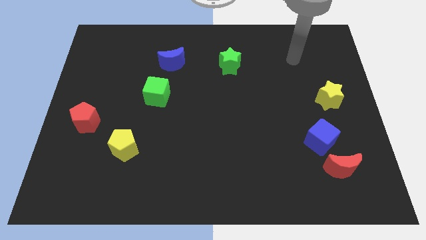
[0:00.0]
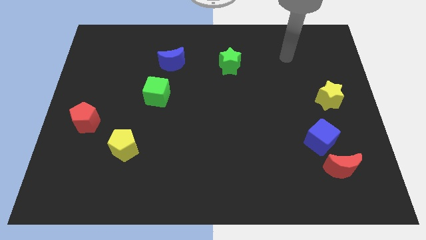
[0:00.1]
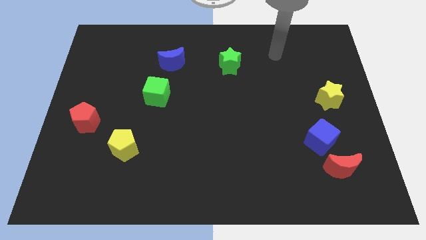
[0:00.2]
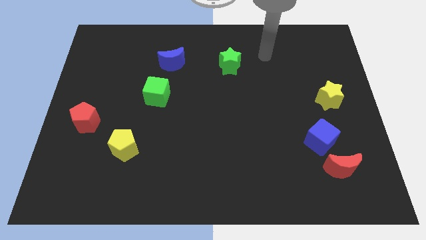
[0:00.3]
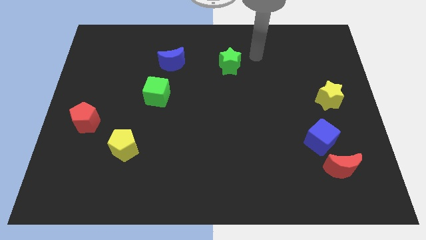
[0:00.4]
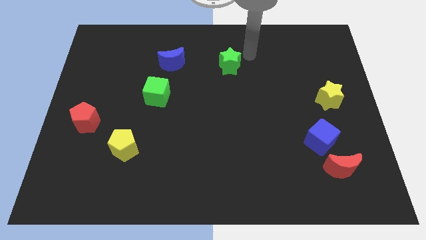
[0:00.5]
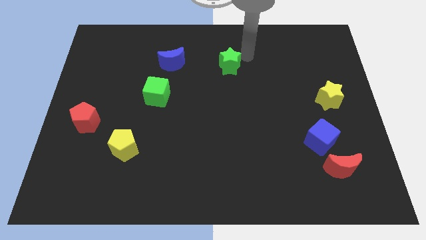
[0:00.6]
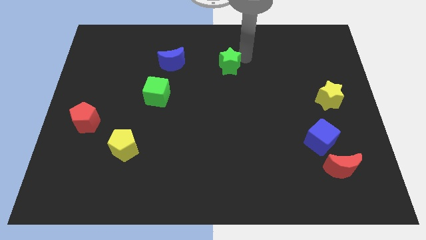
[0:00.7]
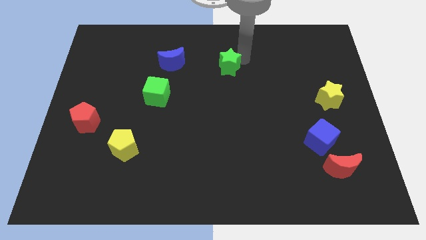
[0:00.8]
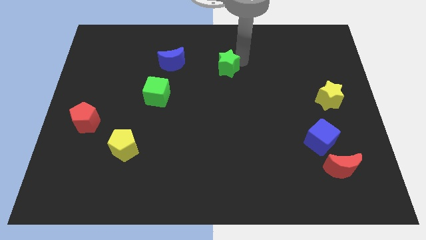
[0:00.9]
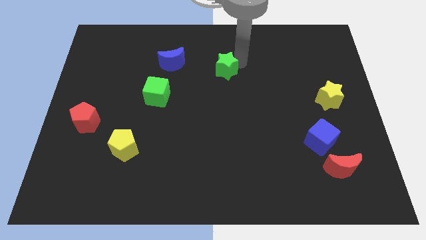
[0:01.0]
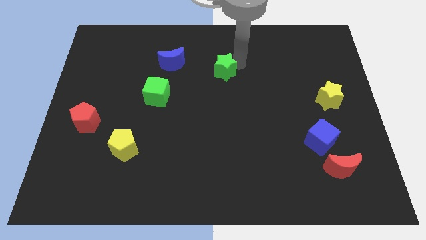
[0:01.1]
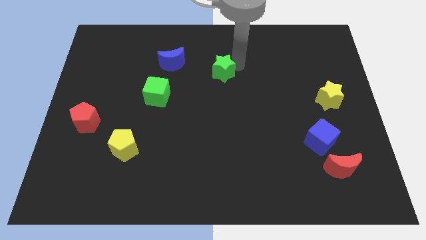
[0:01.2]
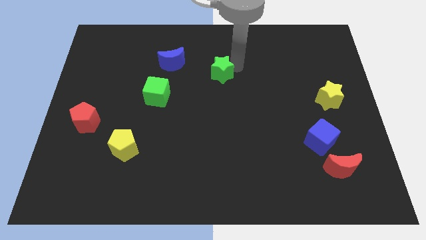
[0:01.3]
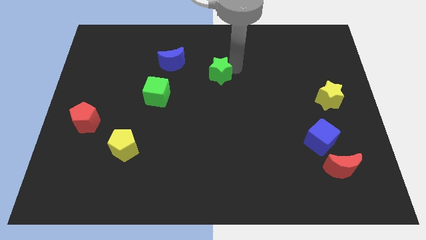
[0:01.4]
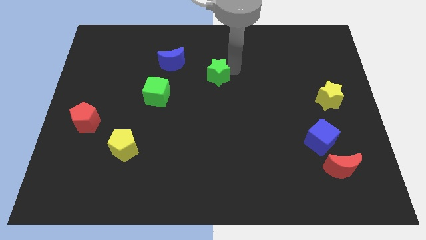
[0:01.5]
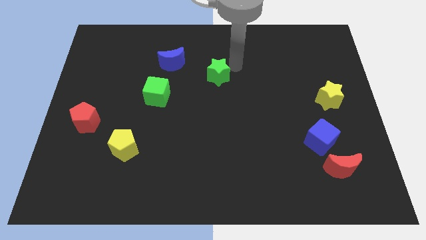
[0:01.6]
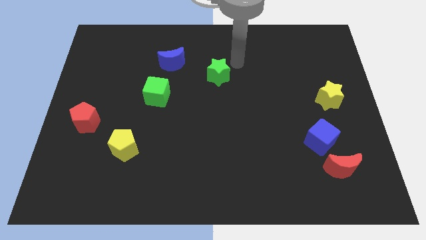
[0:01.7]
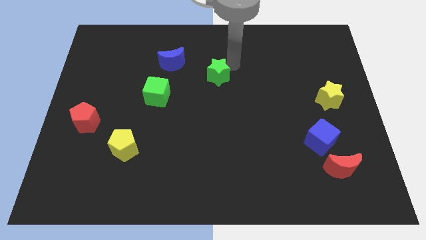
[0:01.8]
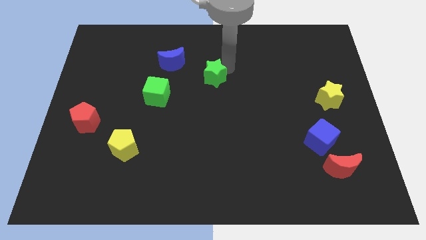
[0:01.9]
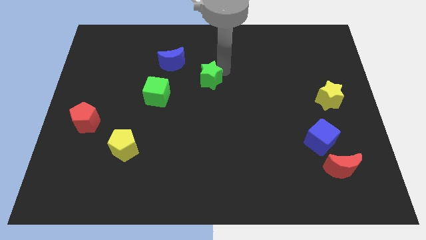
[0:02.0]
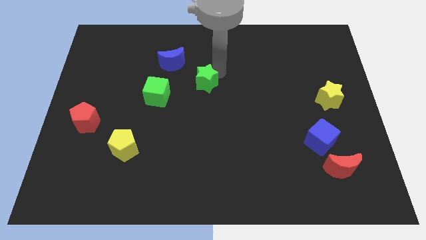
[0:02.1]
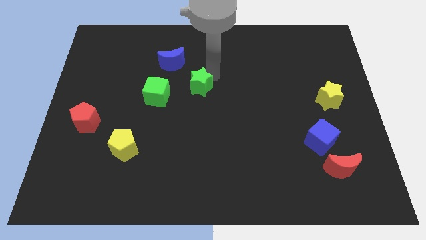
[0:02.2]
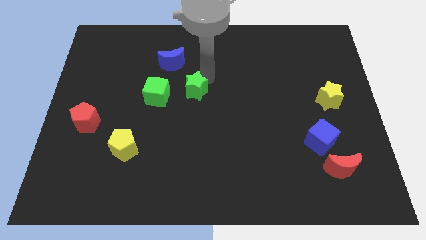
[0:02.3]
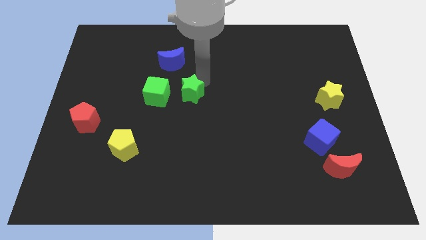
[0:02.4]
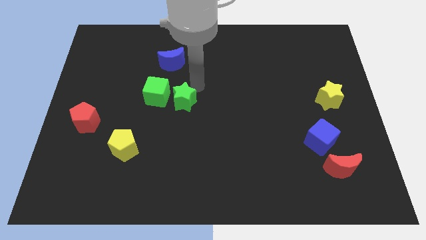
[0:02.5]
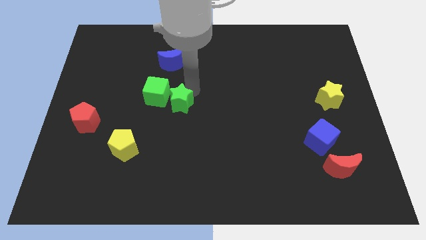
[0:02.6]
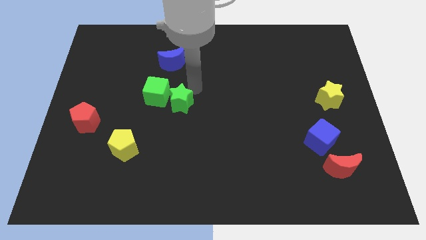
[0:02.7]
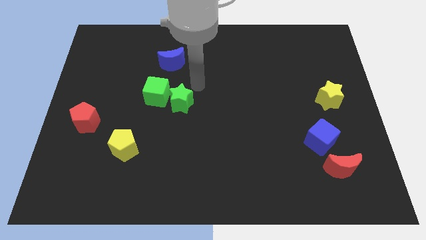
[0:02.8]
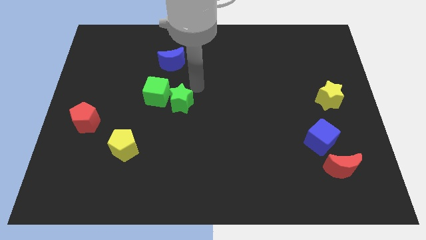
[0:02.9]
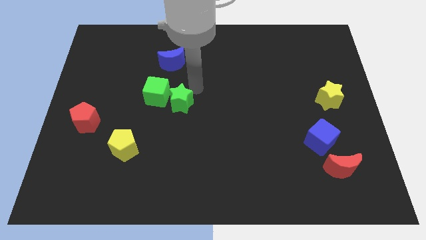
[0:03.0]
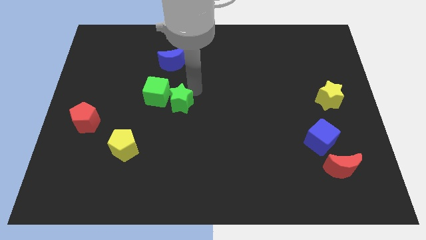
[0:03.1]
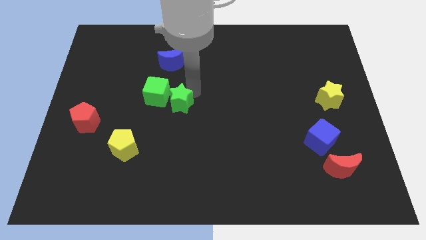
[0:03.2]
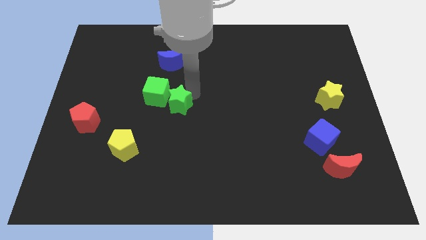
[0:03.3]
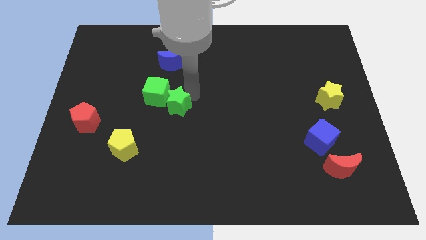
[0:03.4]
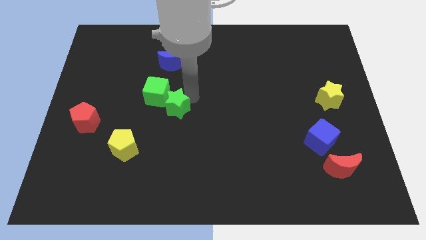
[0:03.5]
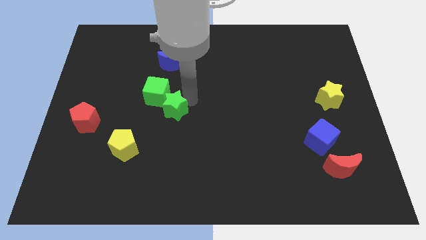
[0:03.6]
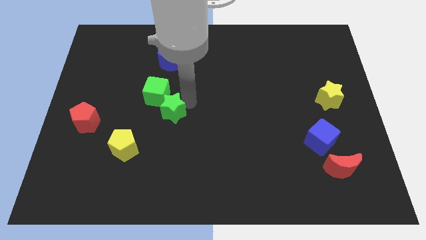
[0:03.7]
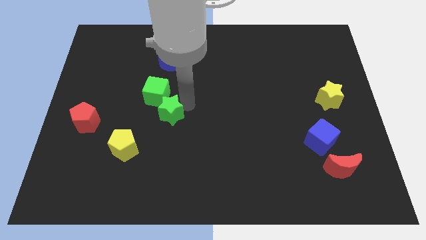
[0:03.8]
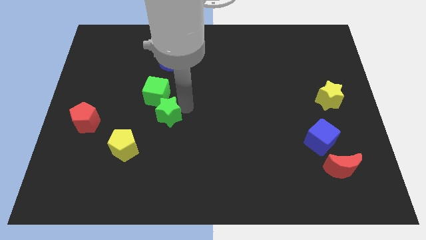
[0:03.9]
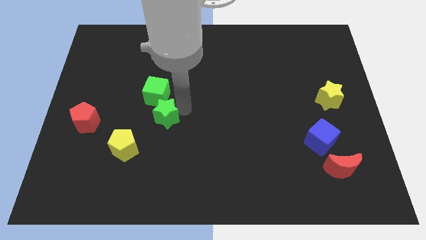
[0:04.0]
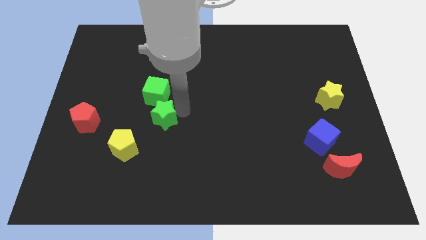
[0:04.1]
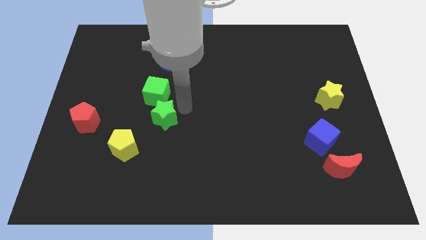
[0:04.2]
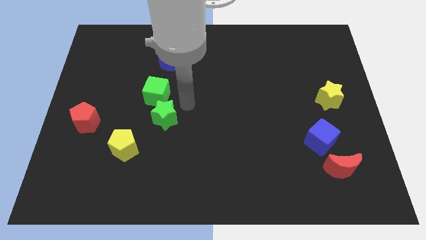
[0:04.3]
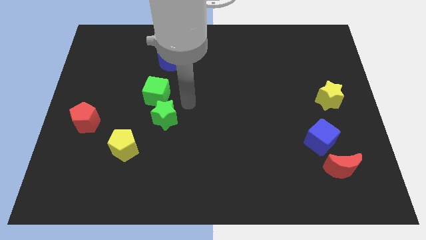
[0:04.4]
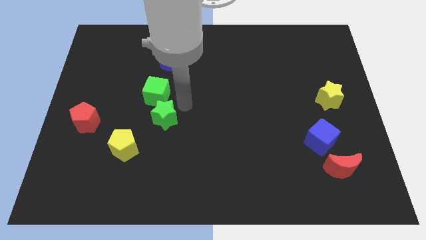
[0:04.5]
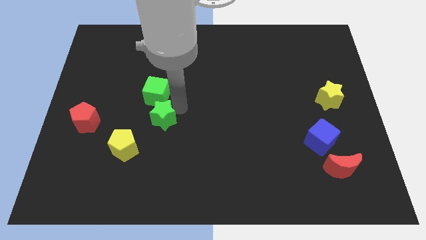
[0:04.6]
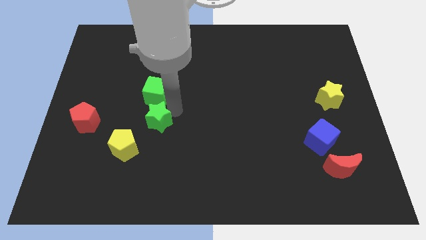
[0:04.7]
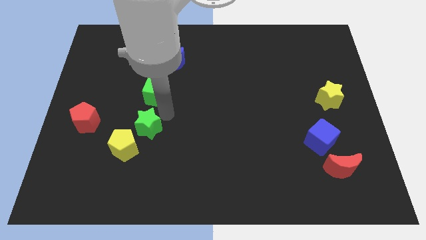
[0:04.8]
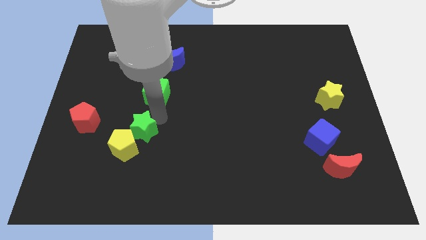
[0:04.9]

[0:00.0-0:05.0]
put the green star towards the yellow pentagon

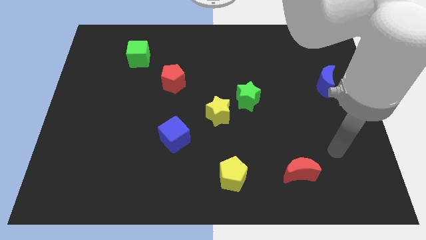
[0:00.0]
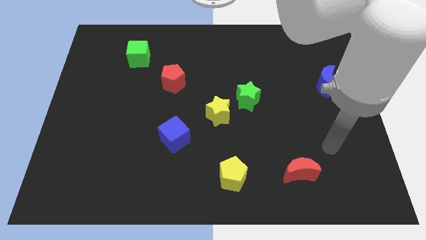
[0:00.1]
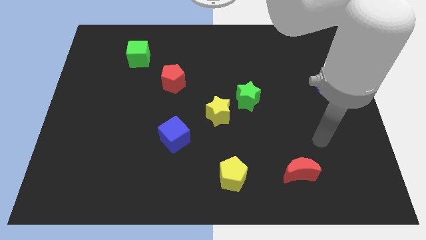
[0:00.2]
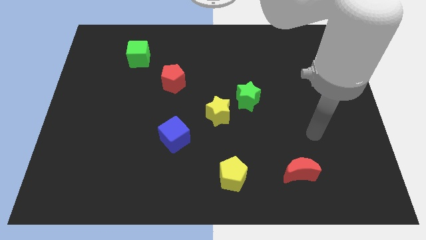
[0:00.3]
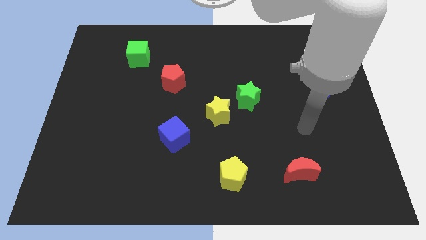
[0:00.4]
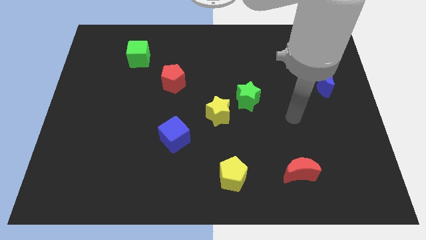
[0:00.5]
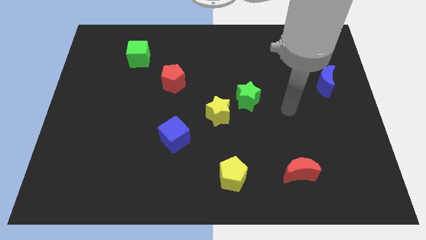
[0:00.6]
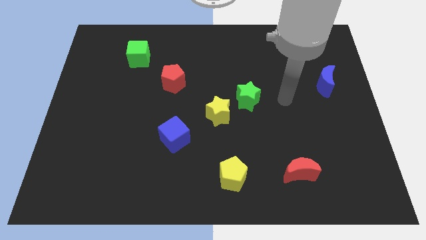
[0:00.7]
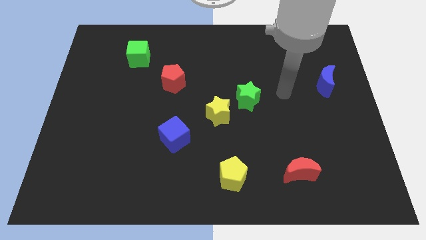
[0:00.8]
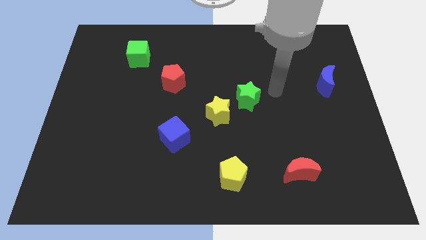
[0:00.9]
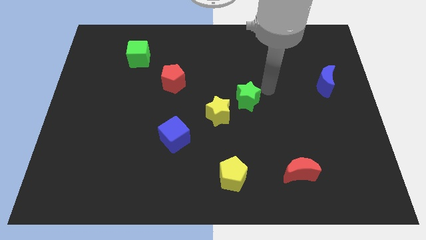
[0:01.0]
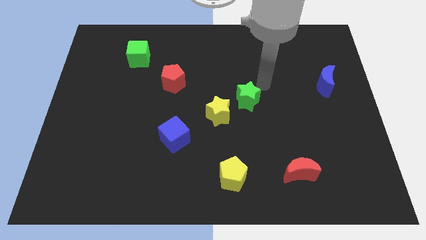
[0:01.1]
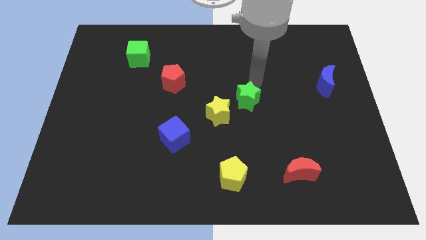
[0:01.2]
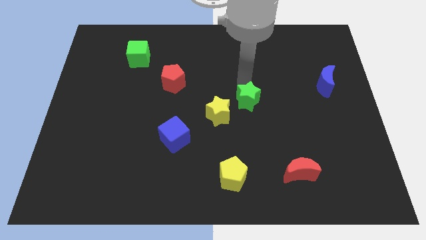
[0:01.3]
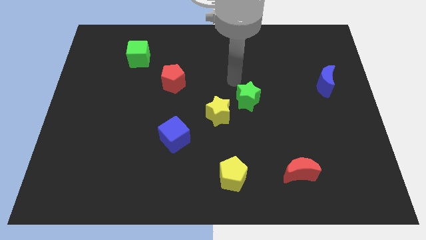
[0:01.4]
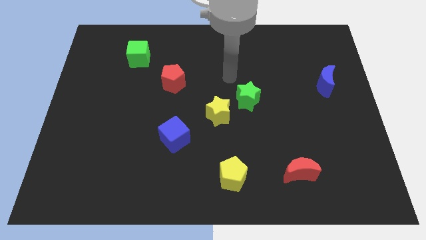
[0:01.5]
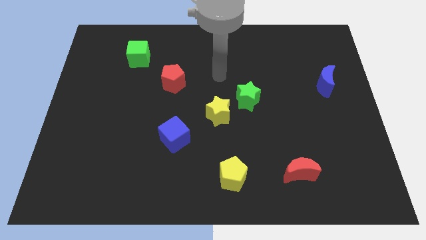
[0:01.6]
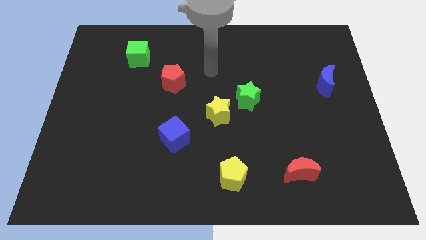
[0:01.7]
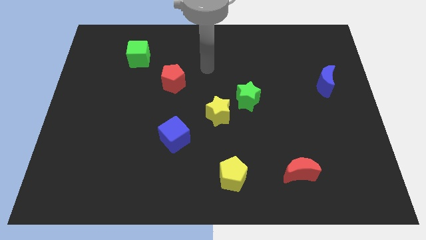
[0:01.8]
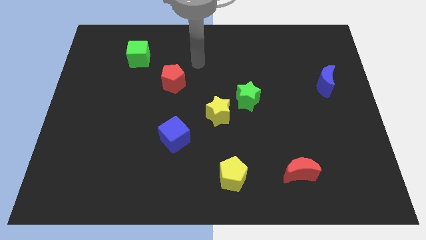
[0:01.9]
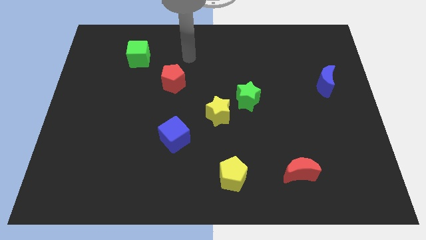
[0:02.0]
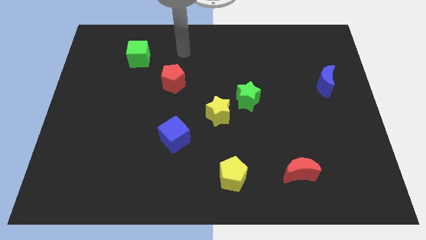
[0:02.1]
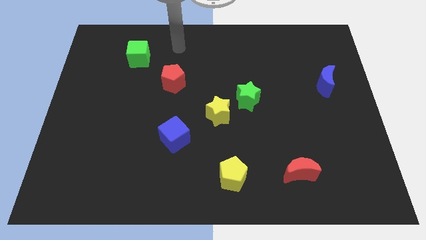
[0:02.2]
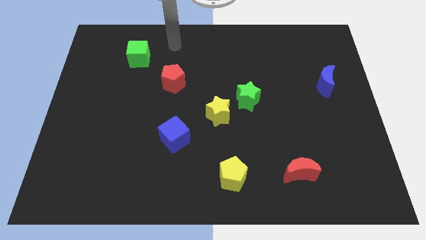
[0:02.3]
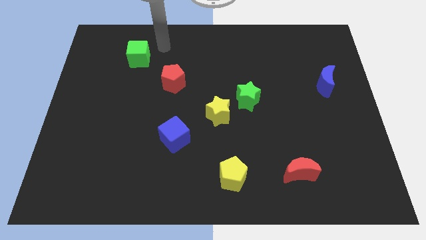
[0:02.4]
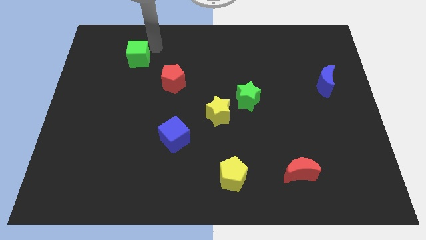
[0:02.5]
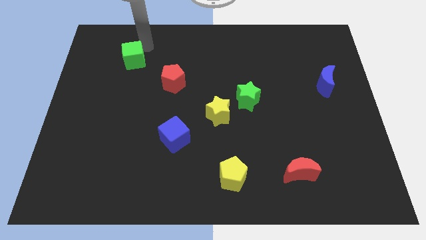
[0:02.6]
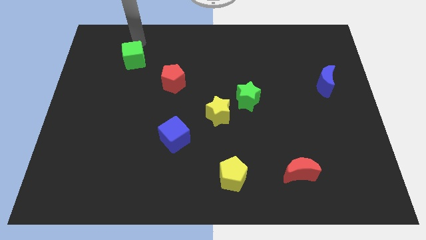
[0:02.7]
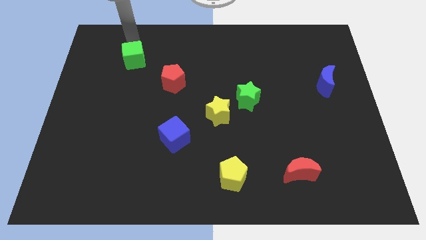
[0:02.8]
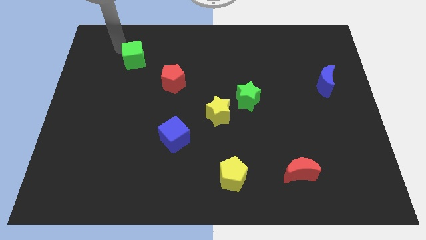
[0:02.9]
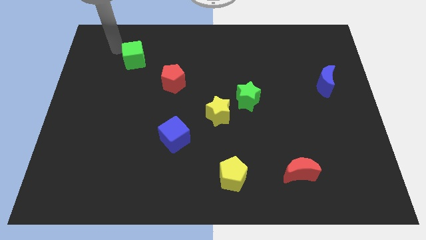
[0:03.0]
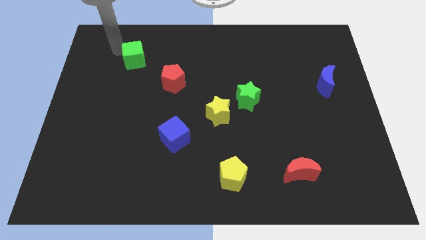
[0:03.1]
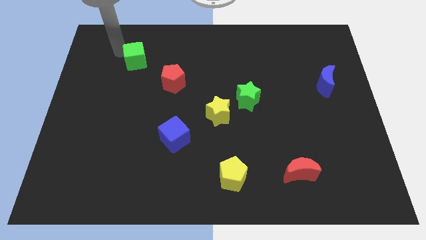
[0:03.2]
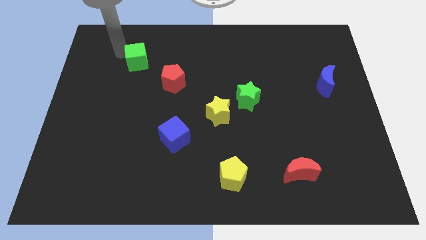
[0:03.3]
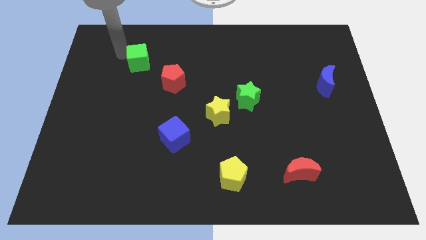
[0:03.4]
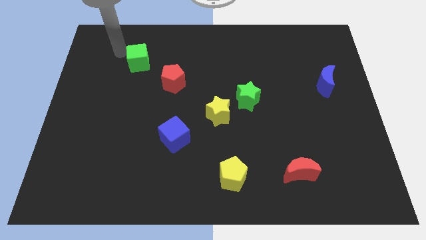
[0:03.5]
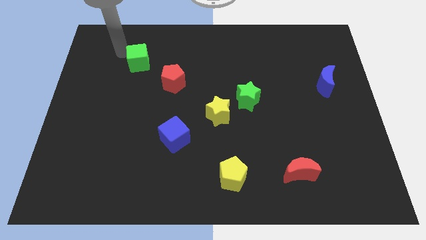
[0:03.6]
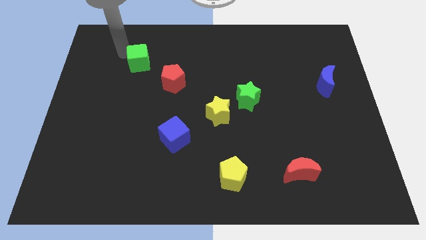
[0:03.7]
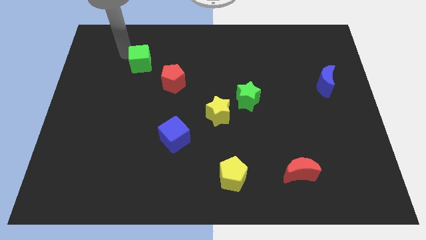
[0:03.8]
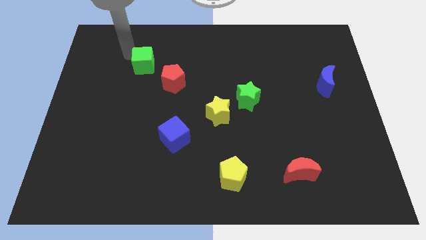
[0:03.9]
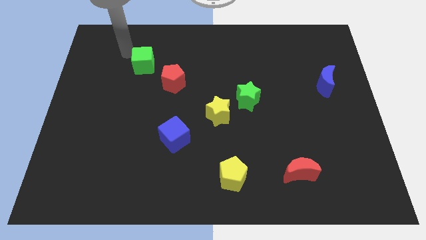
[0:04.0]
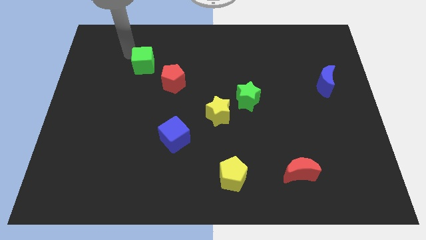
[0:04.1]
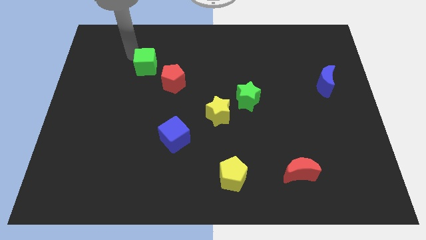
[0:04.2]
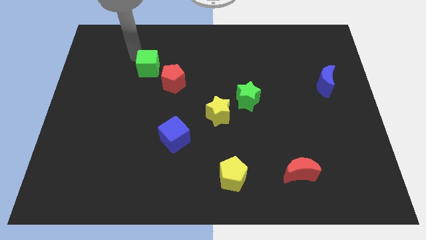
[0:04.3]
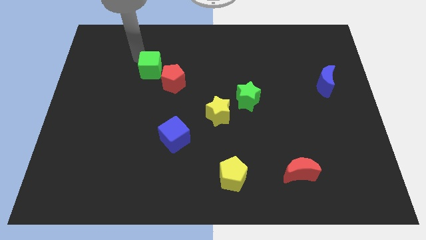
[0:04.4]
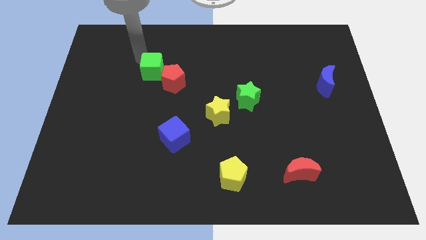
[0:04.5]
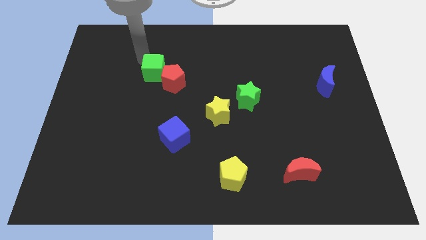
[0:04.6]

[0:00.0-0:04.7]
slide the green cube next to the red pentagon
